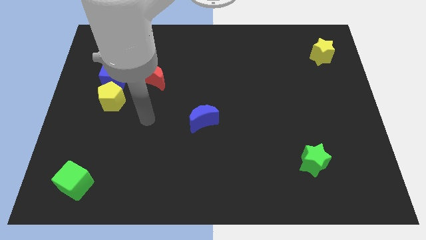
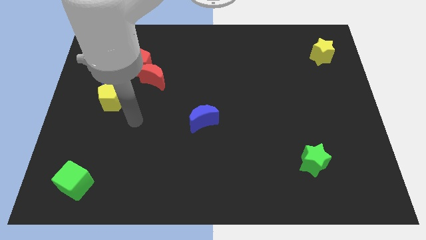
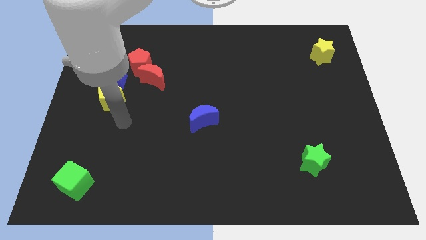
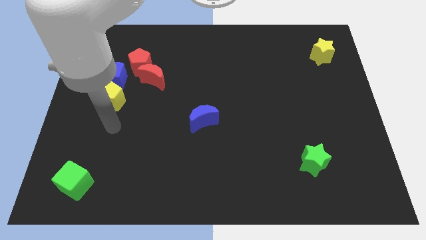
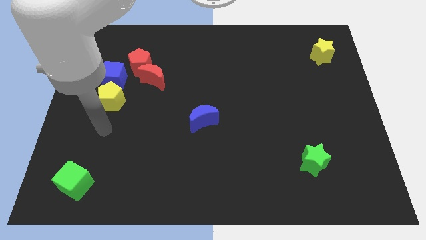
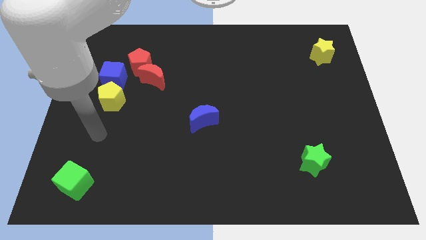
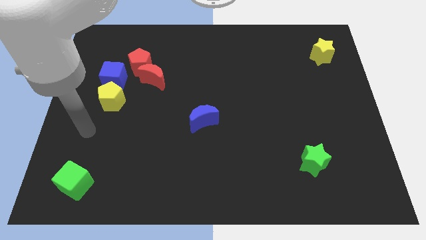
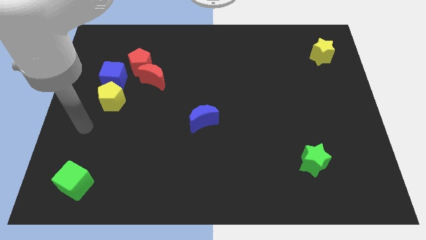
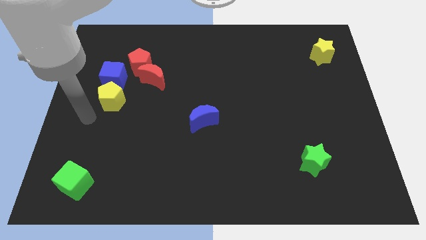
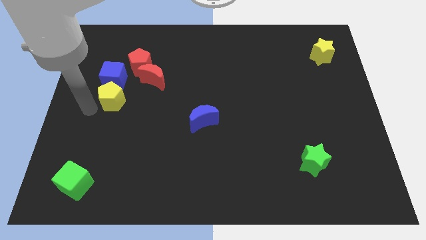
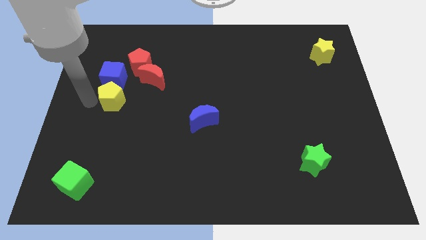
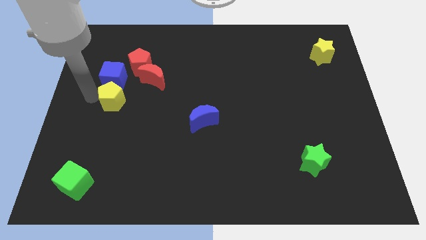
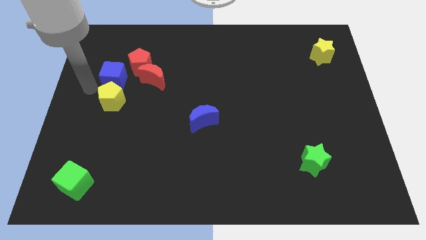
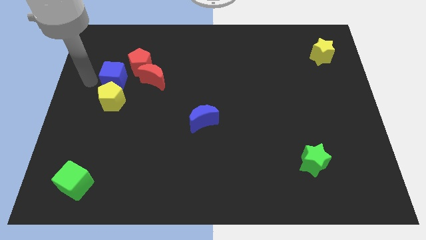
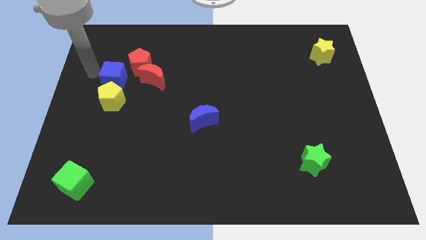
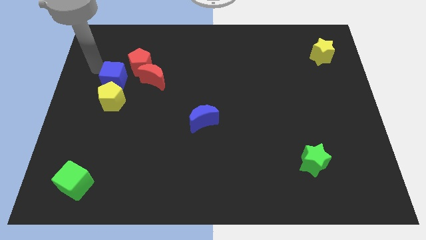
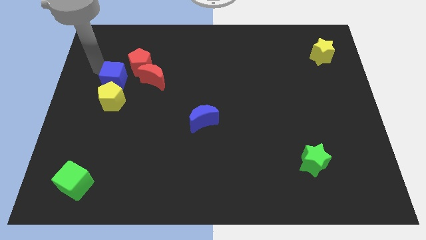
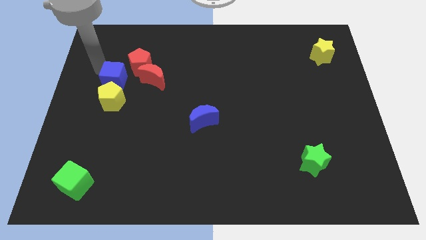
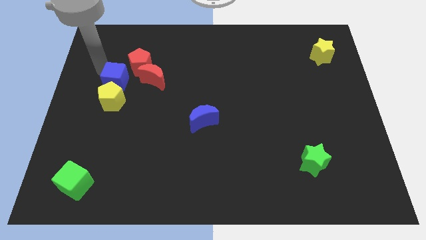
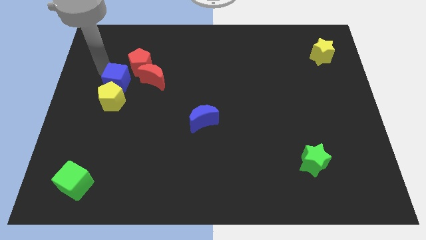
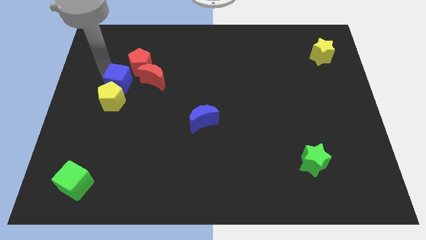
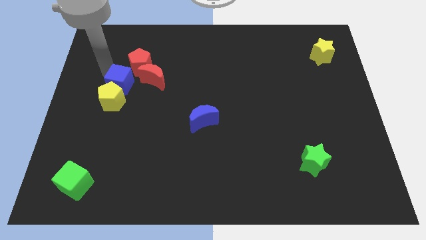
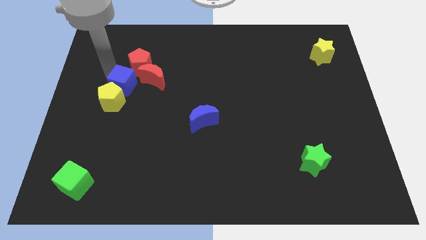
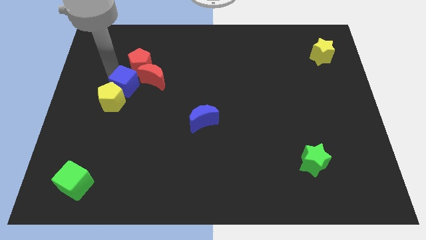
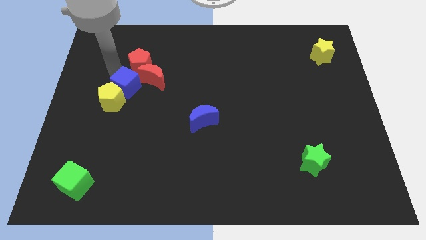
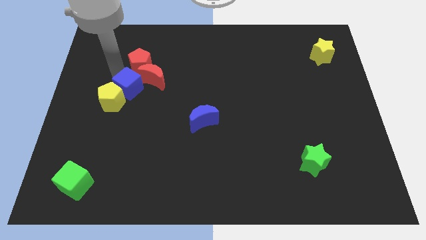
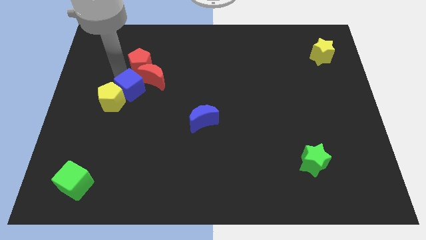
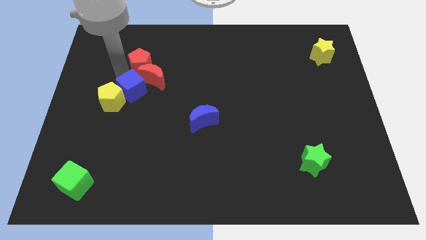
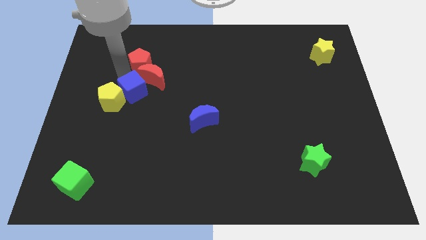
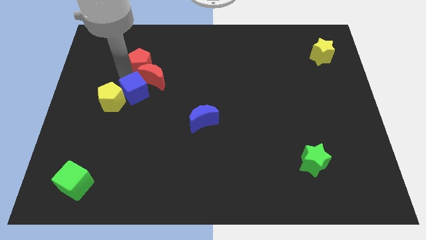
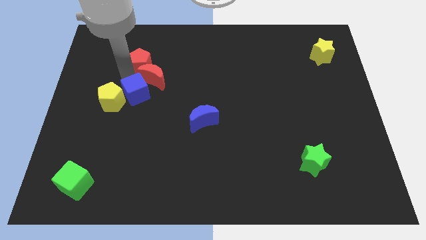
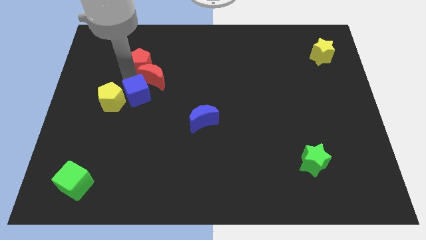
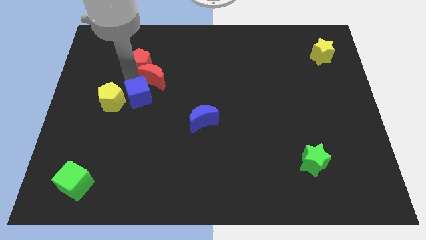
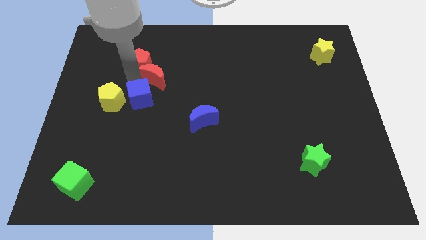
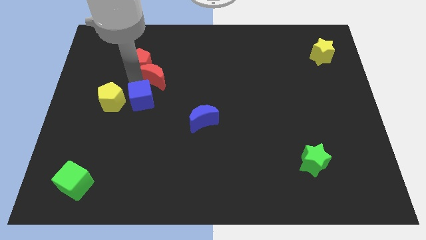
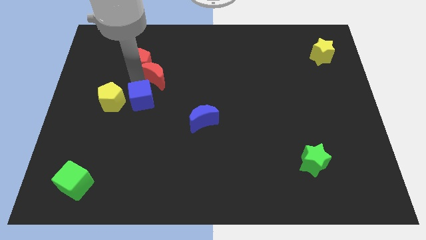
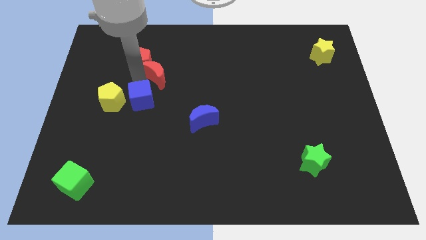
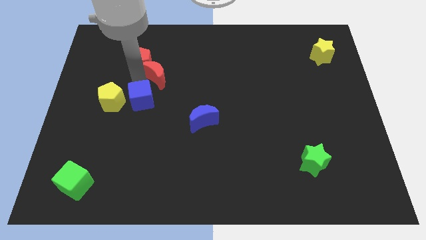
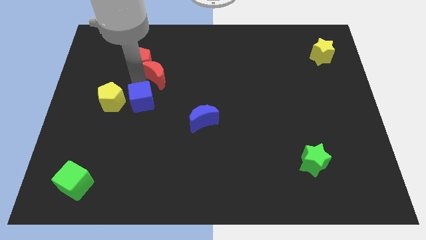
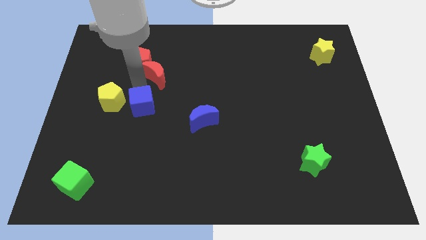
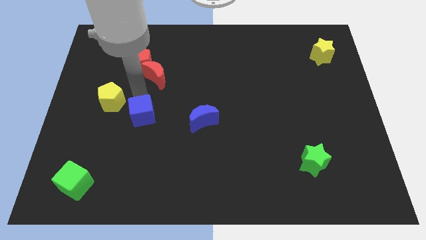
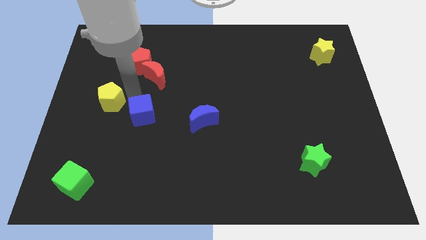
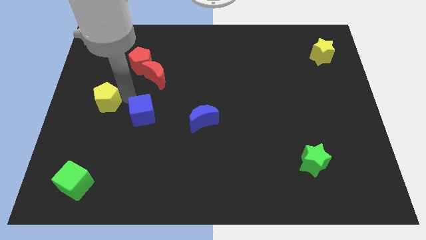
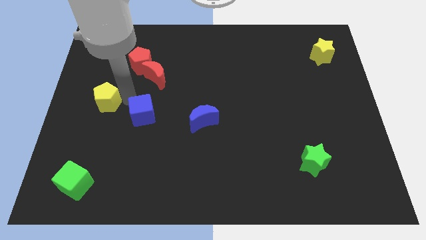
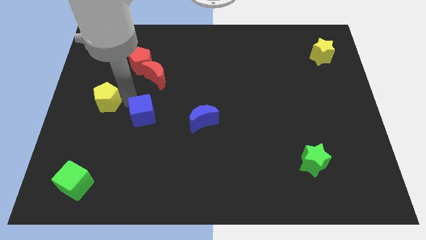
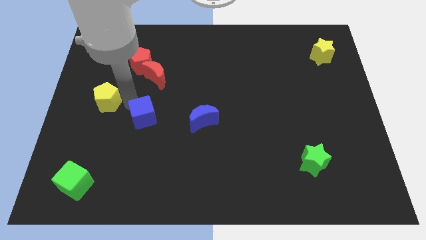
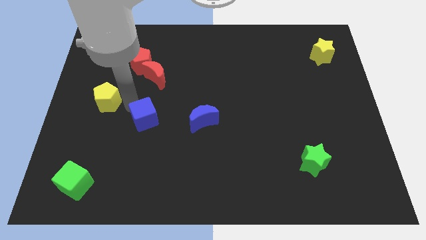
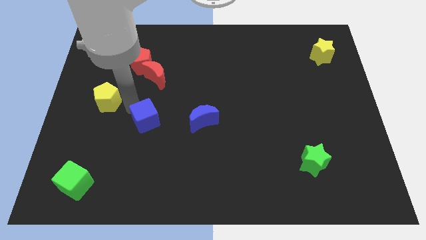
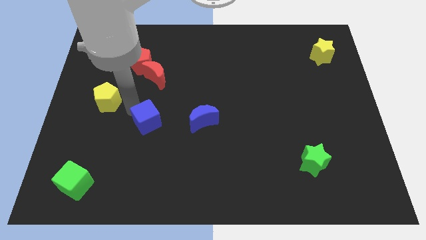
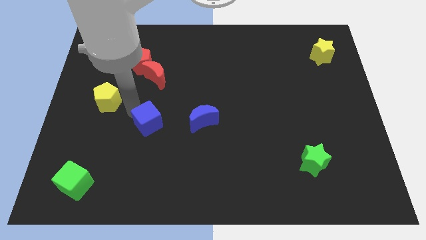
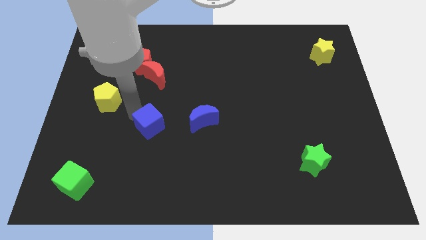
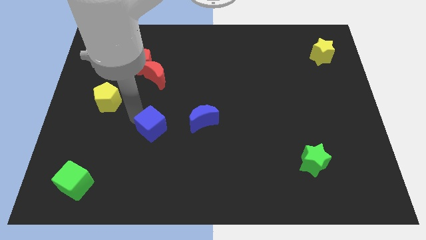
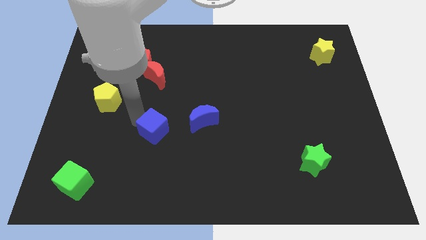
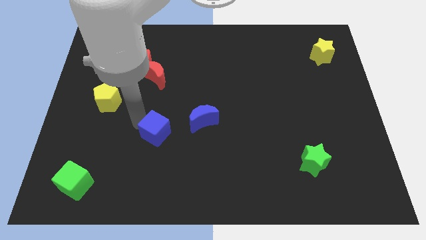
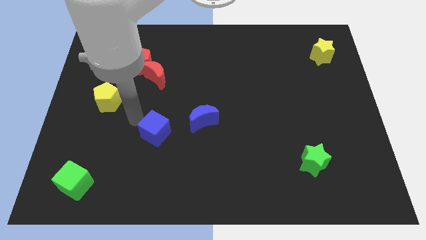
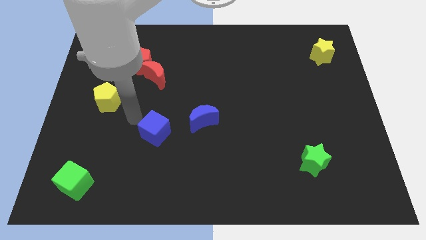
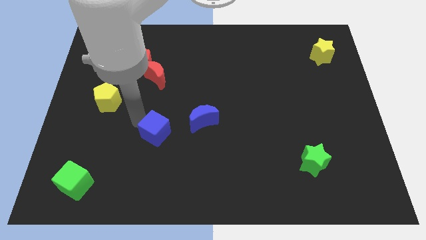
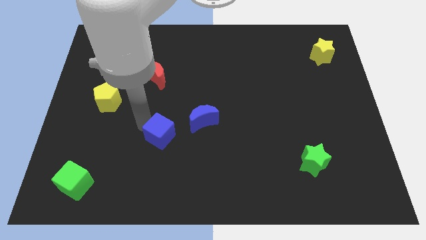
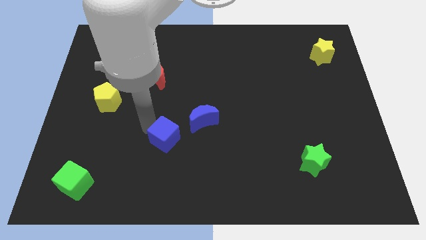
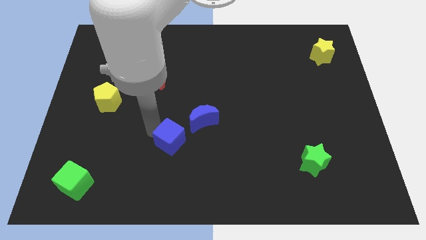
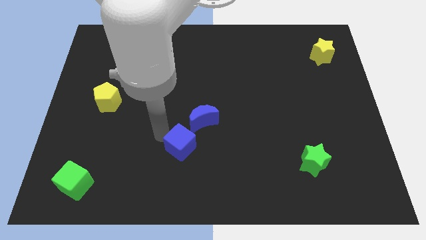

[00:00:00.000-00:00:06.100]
slide the blue cube to the bottom side of the blue moon

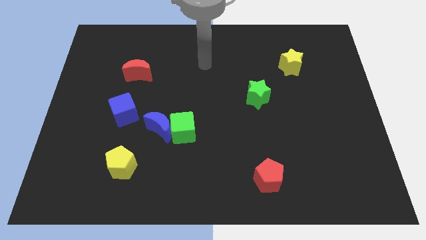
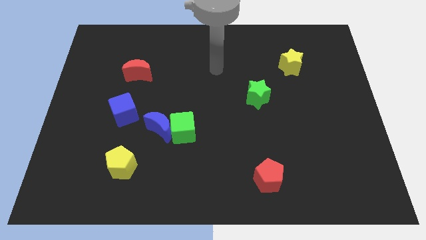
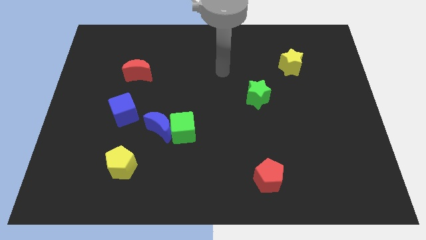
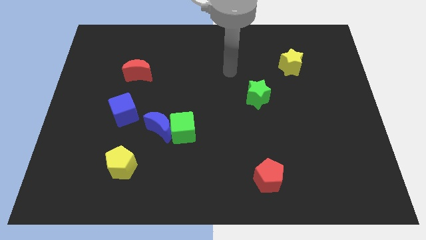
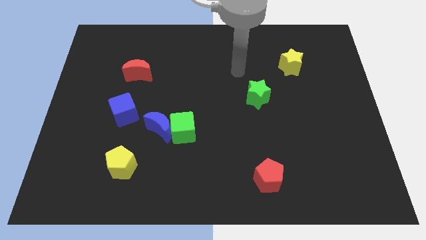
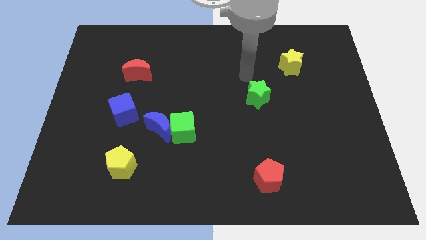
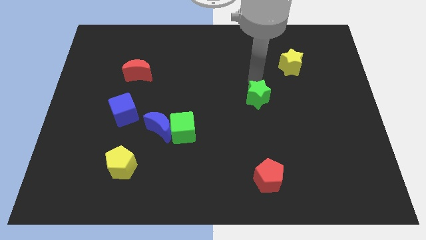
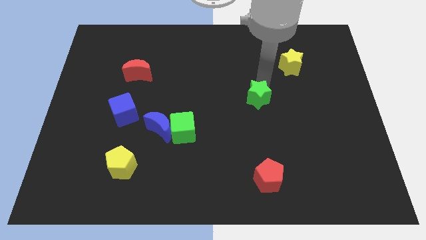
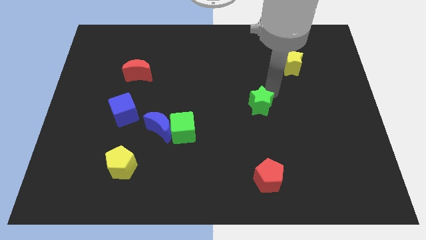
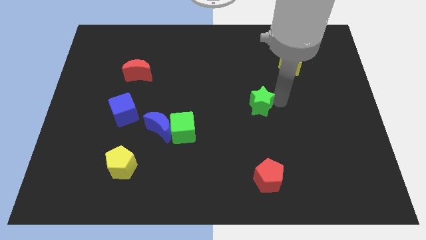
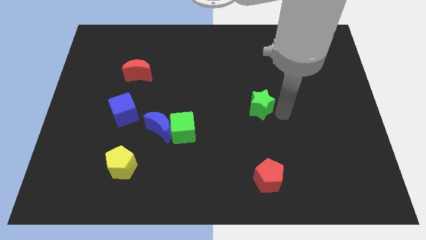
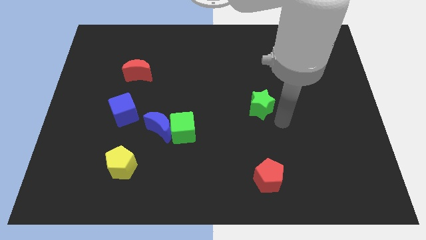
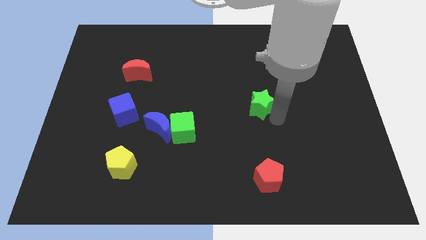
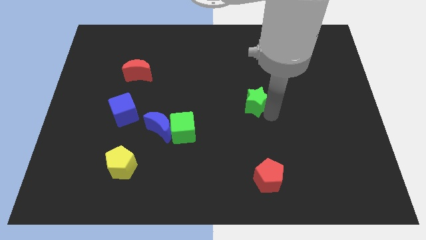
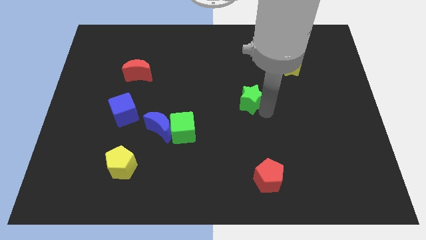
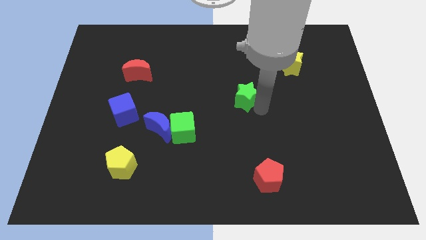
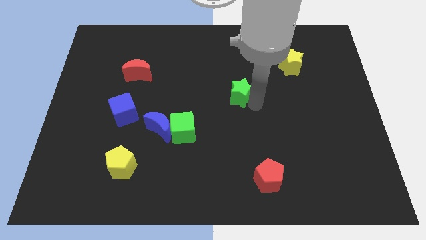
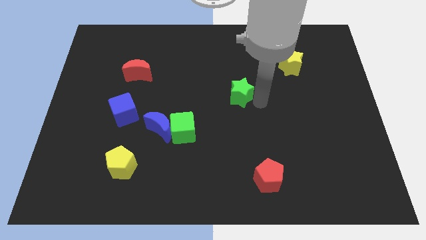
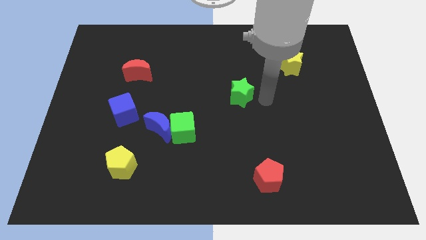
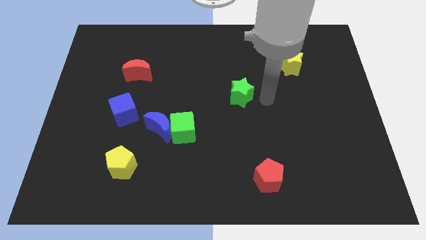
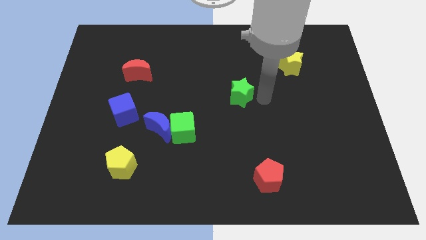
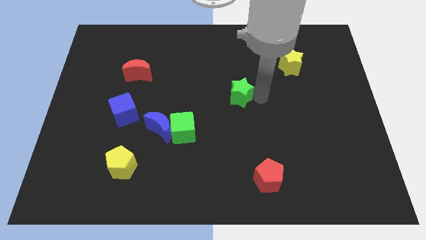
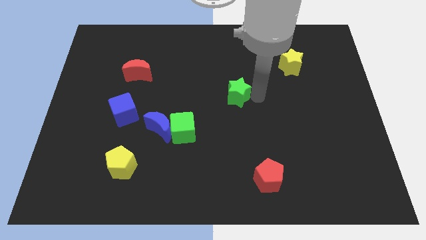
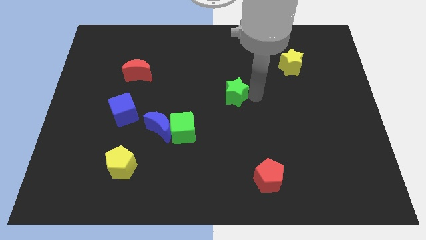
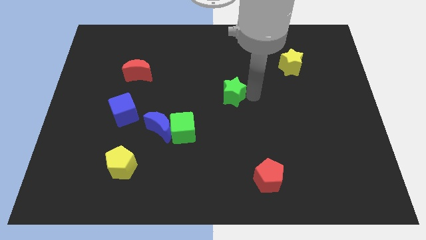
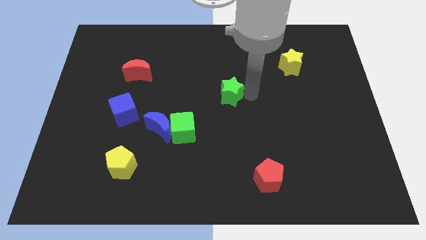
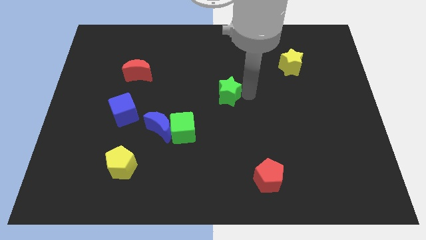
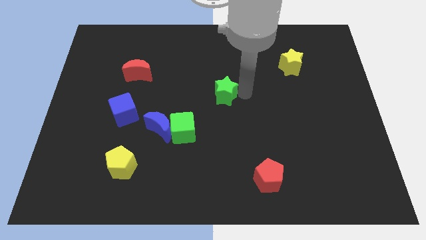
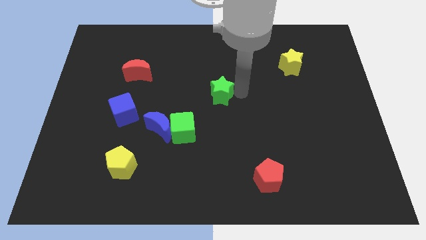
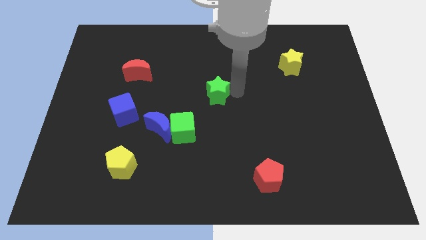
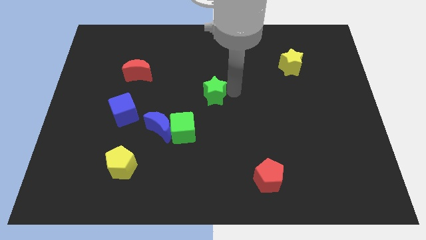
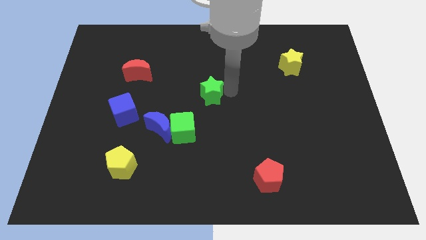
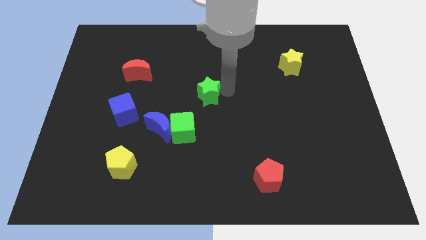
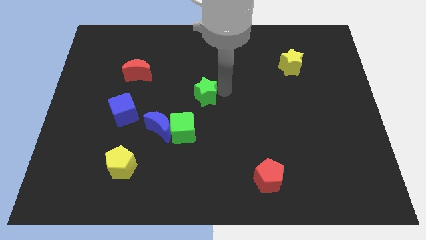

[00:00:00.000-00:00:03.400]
slide the green star to the top of the green cube
